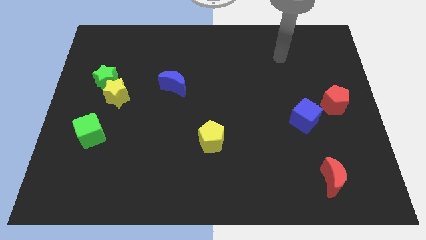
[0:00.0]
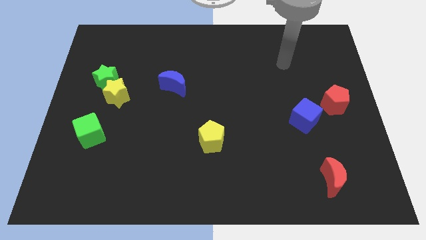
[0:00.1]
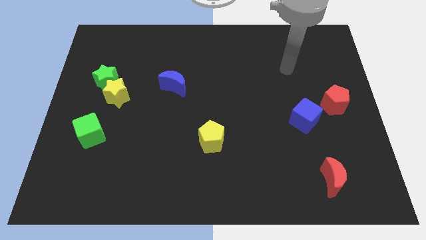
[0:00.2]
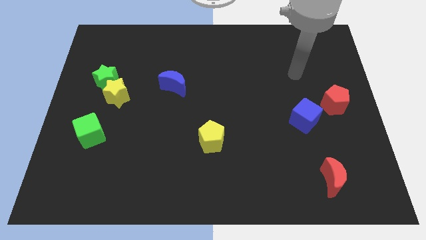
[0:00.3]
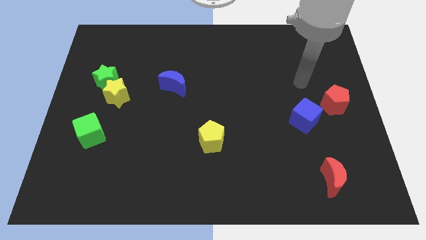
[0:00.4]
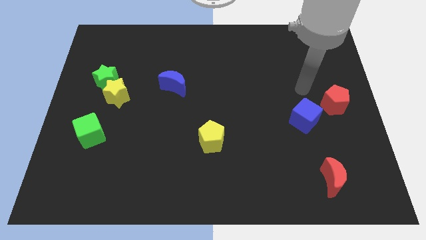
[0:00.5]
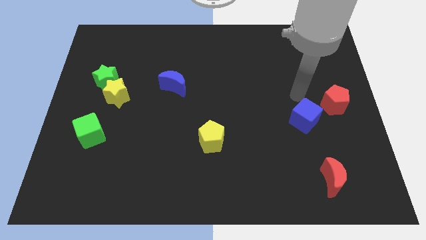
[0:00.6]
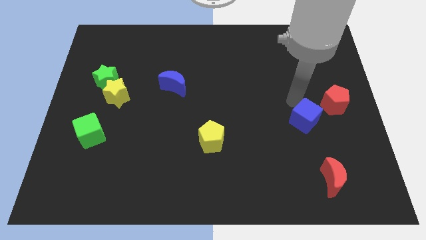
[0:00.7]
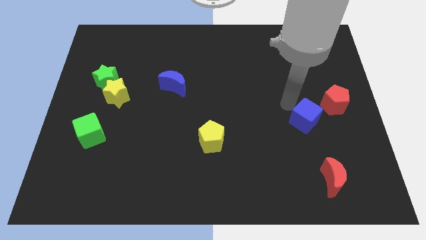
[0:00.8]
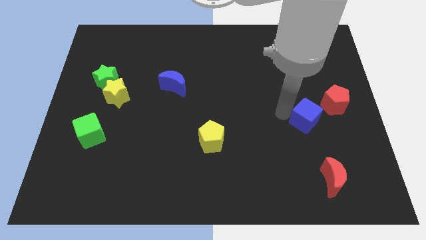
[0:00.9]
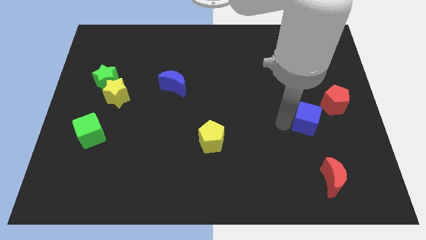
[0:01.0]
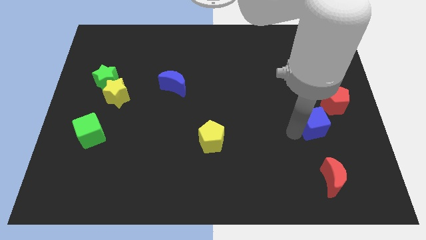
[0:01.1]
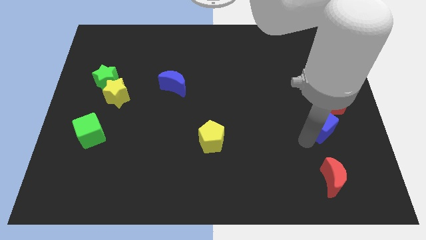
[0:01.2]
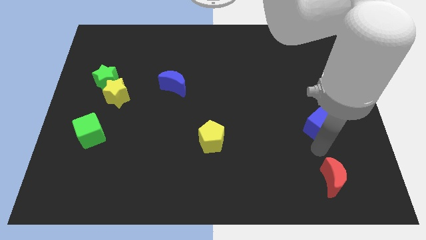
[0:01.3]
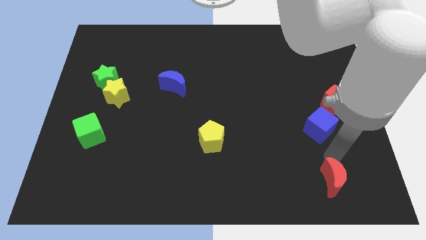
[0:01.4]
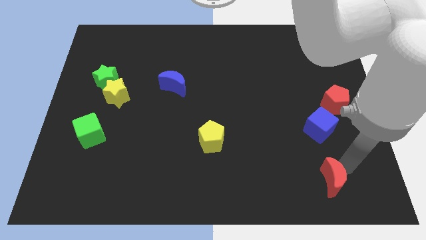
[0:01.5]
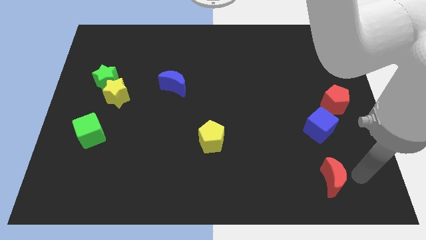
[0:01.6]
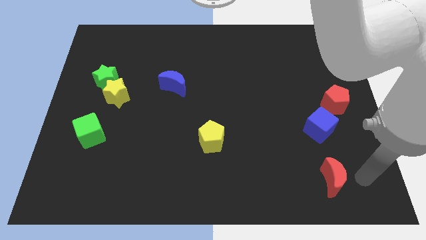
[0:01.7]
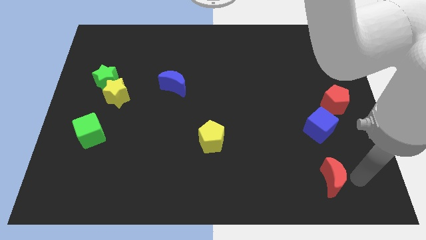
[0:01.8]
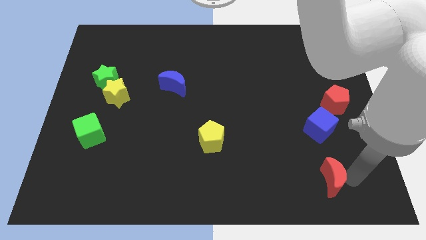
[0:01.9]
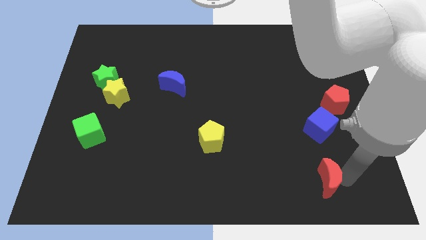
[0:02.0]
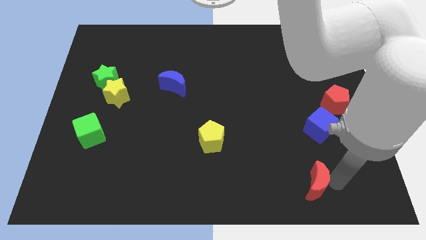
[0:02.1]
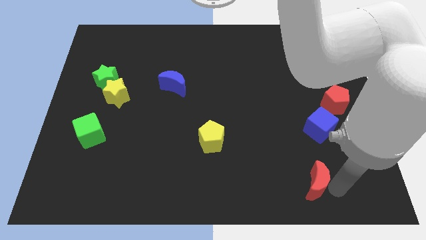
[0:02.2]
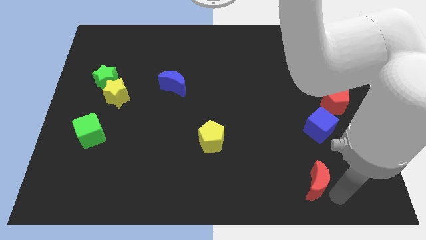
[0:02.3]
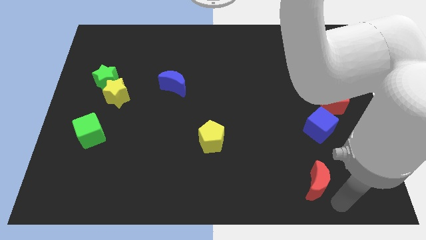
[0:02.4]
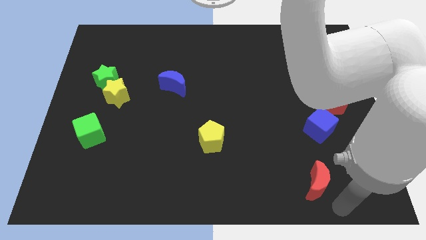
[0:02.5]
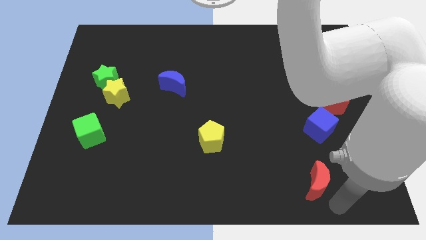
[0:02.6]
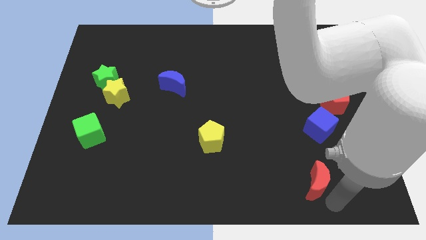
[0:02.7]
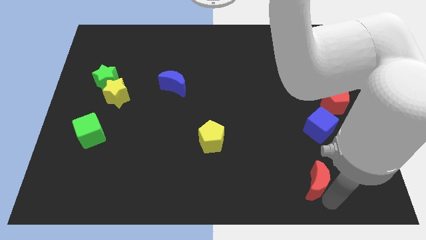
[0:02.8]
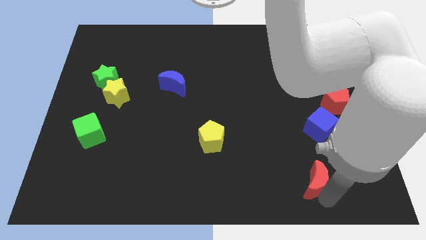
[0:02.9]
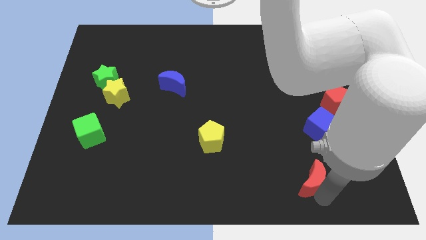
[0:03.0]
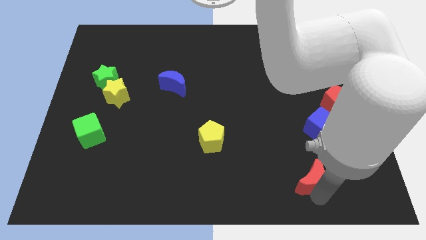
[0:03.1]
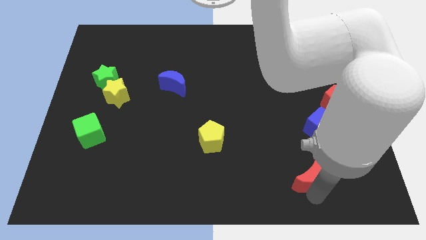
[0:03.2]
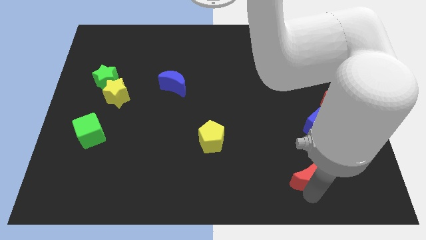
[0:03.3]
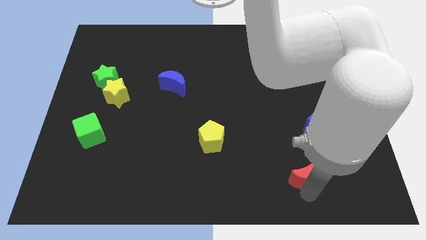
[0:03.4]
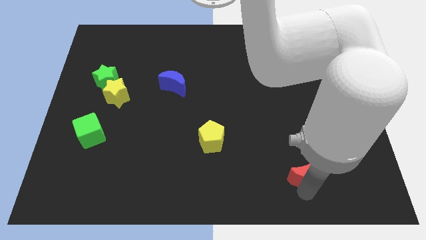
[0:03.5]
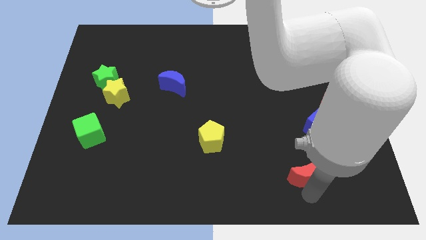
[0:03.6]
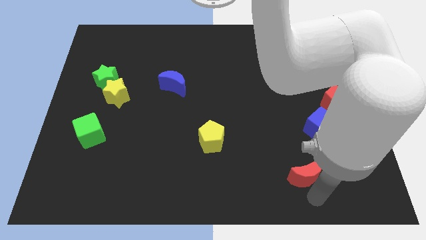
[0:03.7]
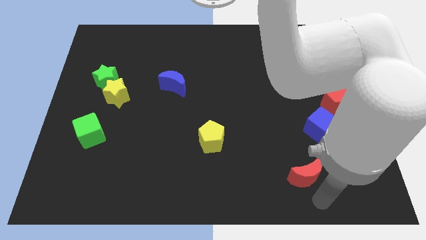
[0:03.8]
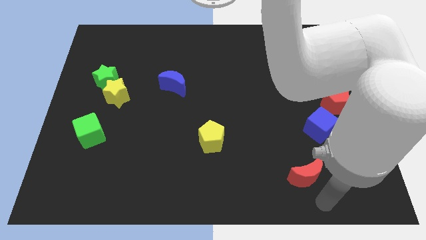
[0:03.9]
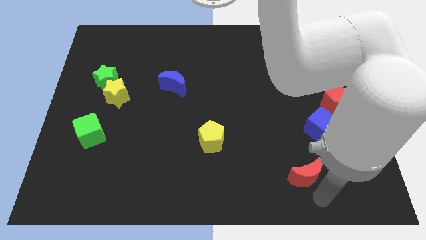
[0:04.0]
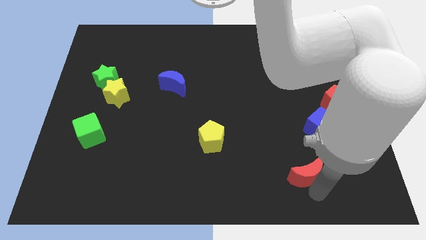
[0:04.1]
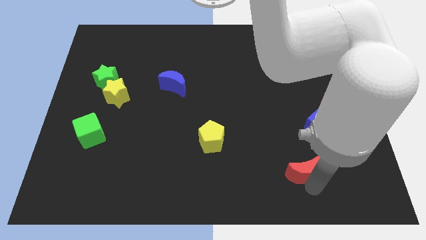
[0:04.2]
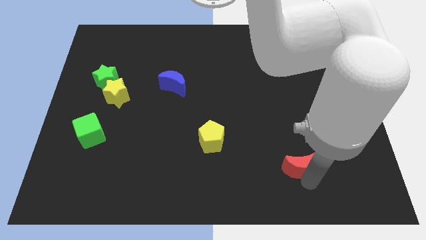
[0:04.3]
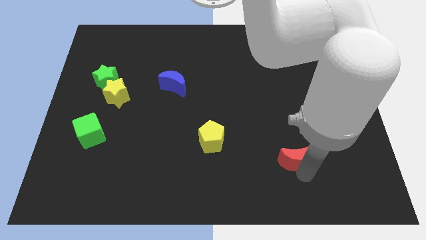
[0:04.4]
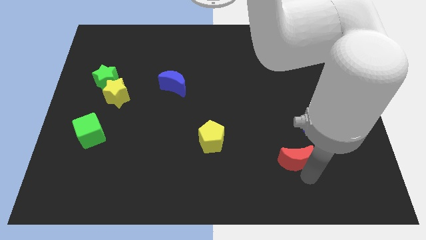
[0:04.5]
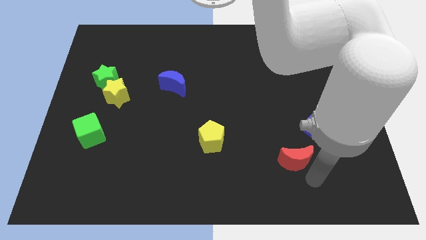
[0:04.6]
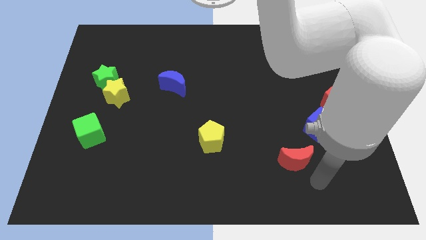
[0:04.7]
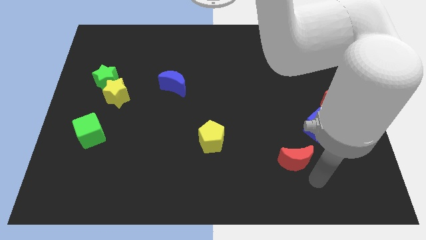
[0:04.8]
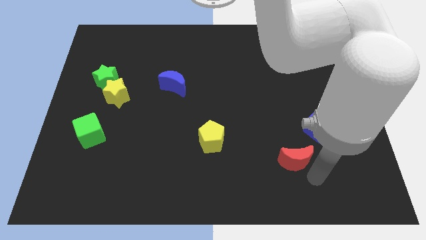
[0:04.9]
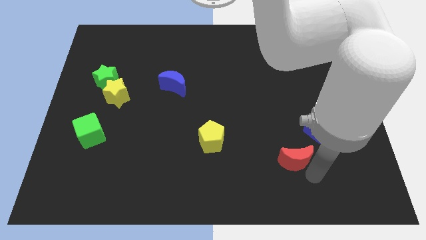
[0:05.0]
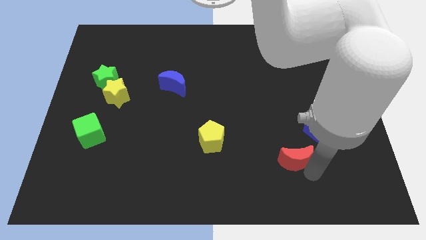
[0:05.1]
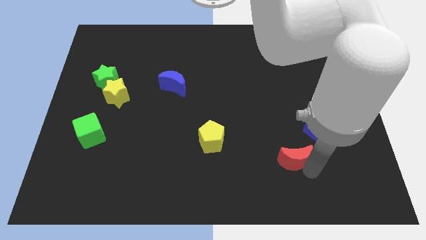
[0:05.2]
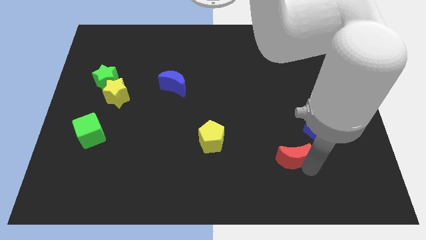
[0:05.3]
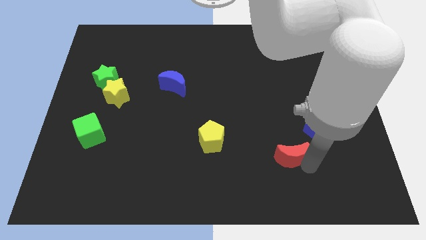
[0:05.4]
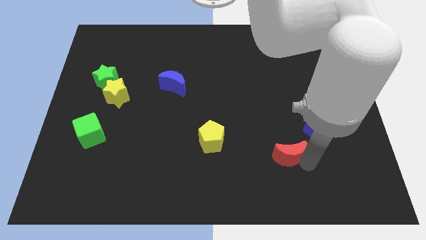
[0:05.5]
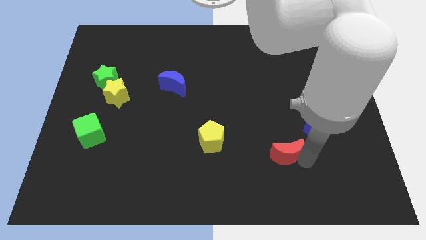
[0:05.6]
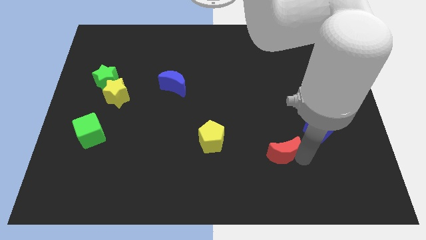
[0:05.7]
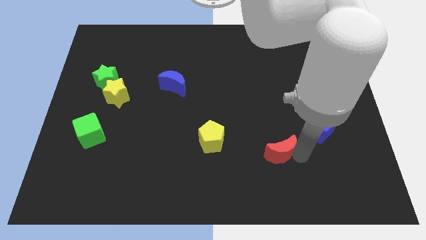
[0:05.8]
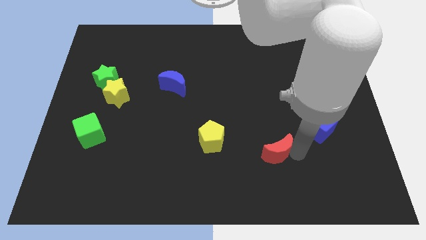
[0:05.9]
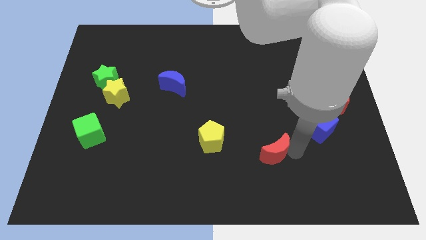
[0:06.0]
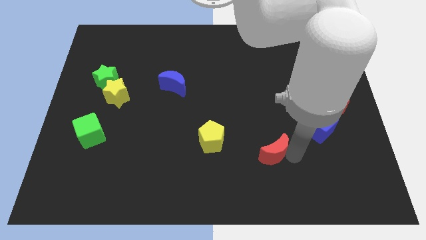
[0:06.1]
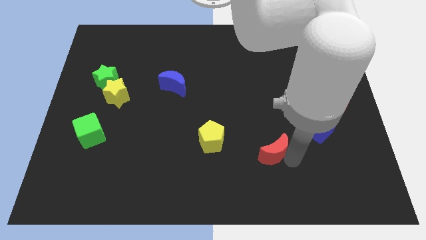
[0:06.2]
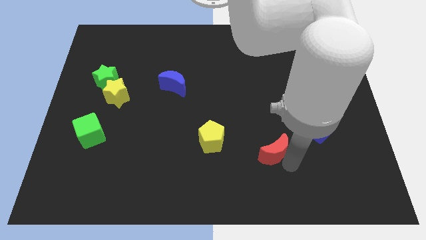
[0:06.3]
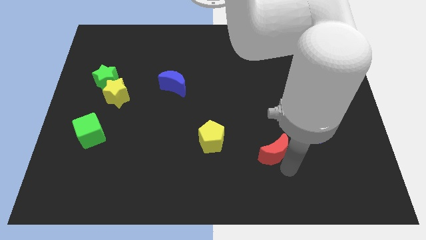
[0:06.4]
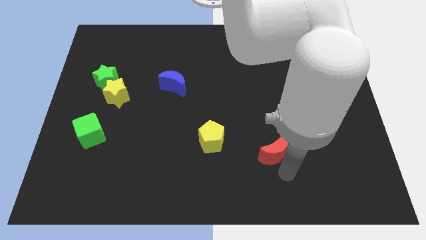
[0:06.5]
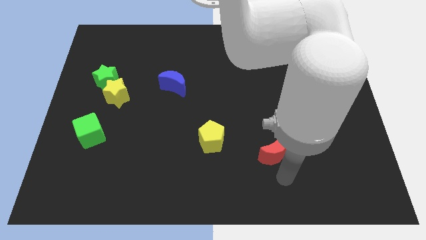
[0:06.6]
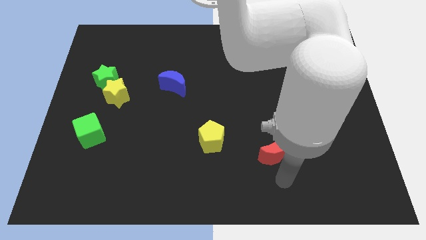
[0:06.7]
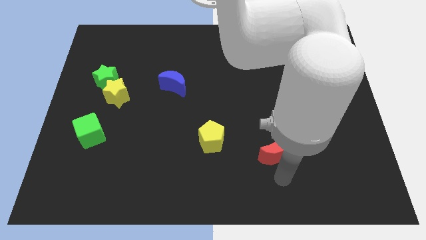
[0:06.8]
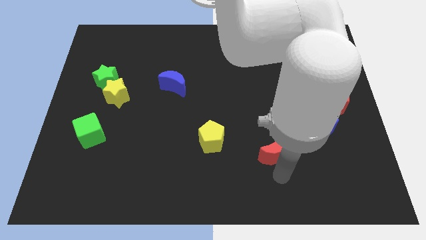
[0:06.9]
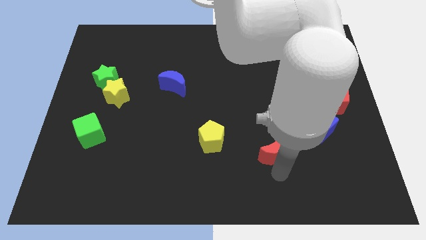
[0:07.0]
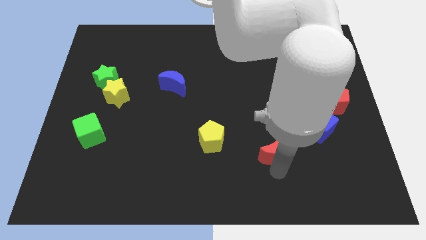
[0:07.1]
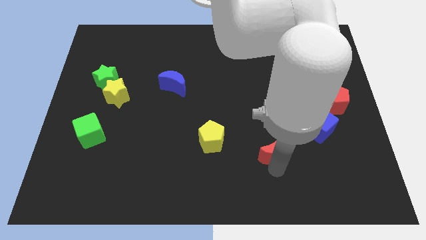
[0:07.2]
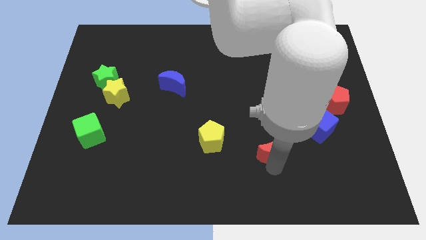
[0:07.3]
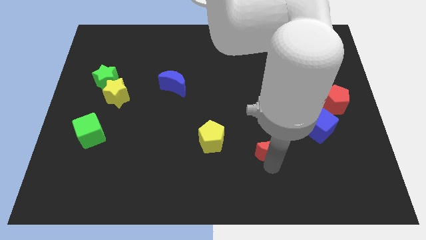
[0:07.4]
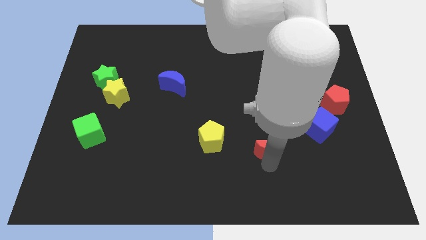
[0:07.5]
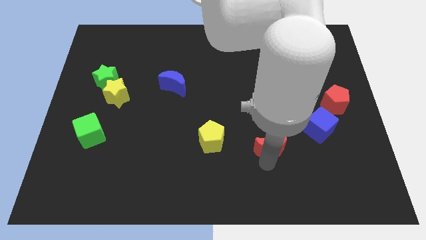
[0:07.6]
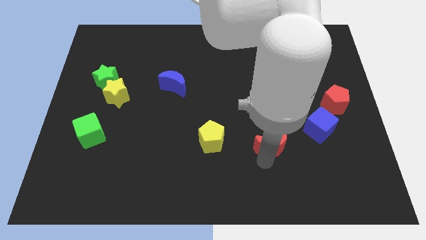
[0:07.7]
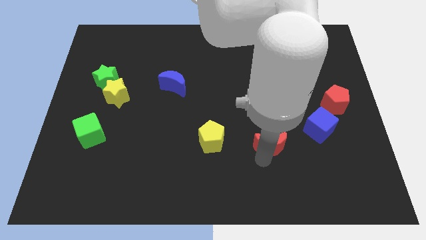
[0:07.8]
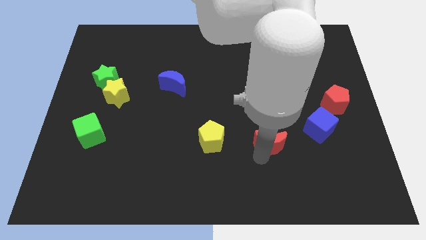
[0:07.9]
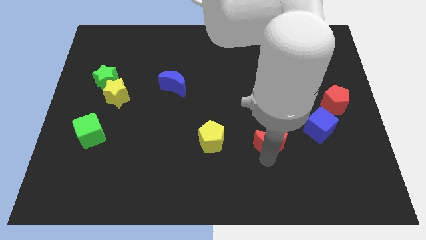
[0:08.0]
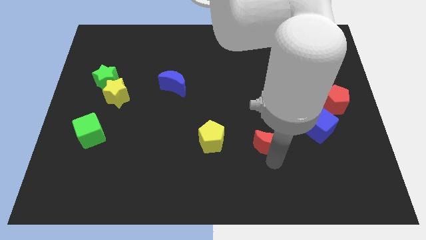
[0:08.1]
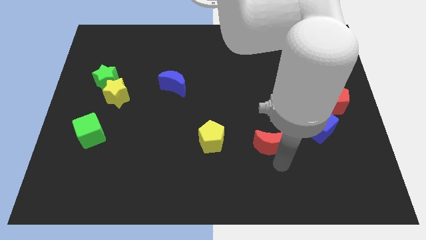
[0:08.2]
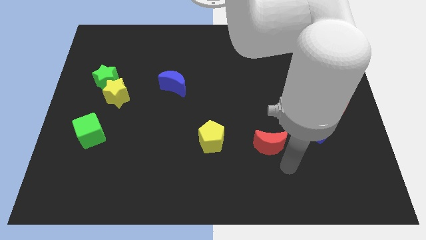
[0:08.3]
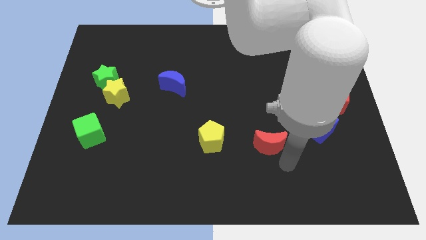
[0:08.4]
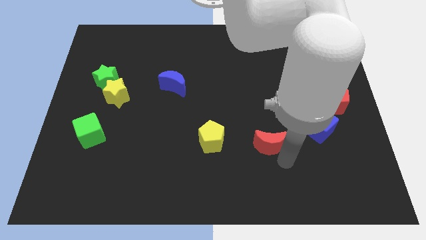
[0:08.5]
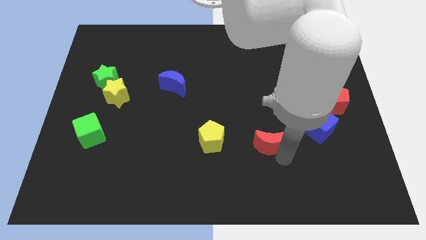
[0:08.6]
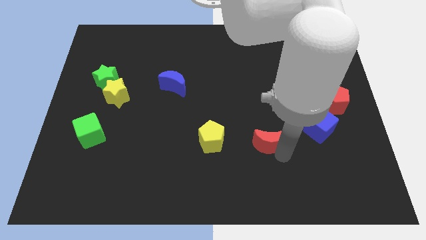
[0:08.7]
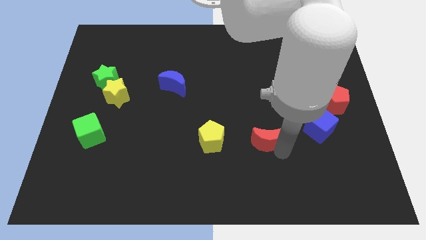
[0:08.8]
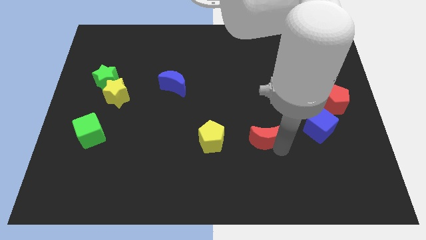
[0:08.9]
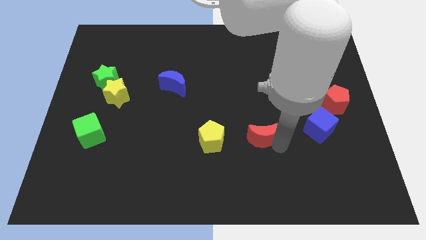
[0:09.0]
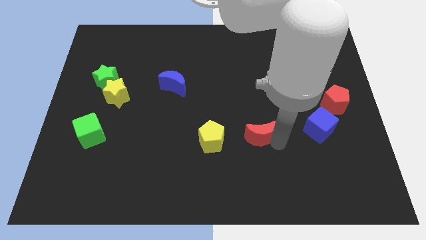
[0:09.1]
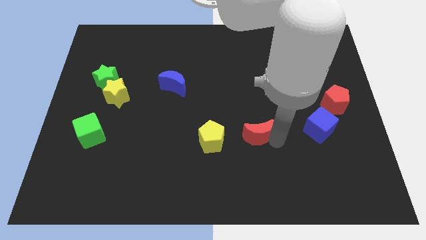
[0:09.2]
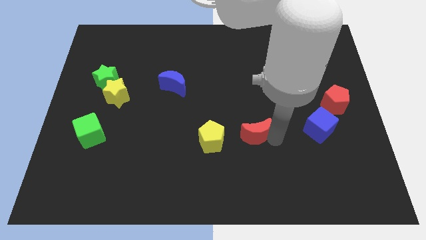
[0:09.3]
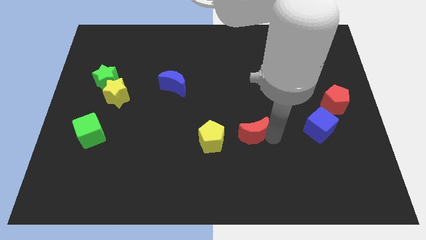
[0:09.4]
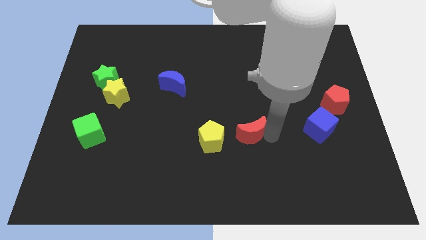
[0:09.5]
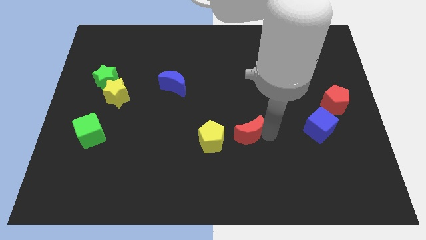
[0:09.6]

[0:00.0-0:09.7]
put the red moon to the center of the board
